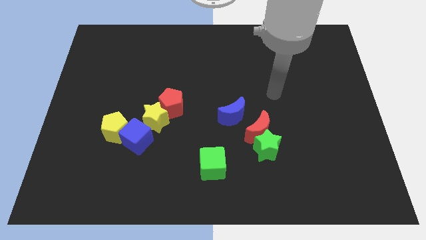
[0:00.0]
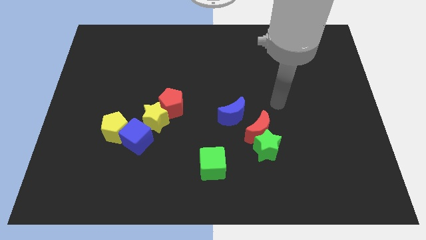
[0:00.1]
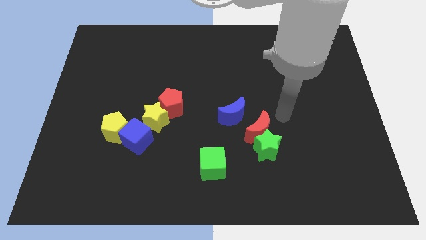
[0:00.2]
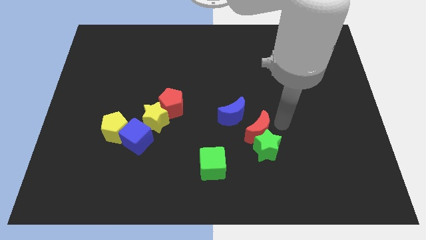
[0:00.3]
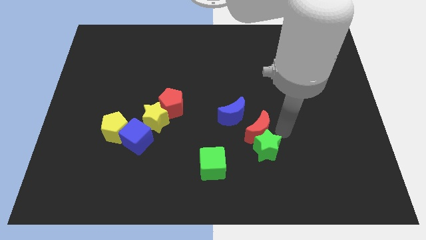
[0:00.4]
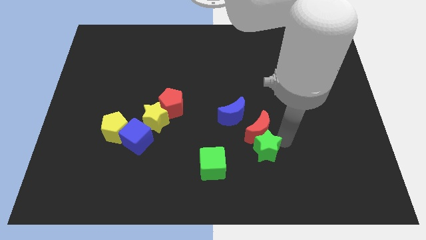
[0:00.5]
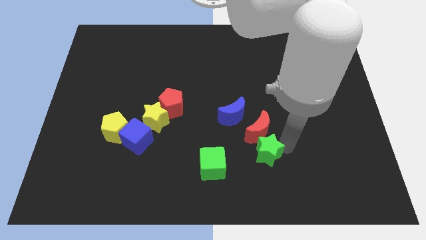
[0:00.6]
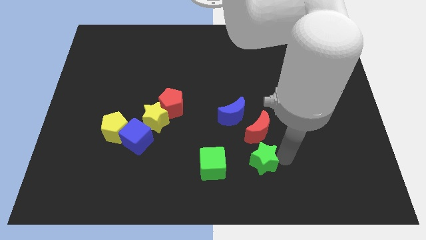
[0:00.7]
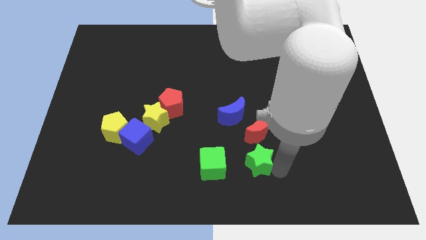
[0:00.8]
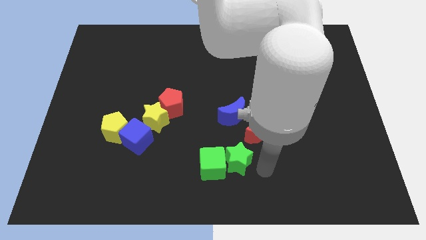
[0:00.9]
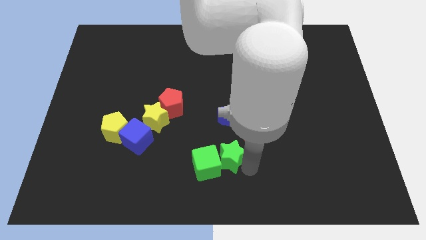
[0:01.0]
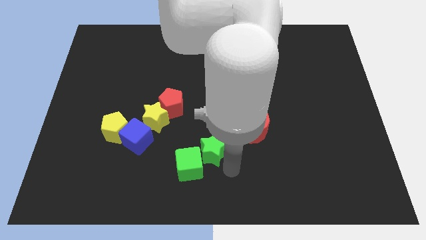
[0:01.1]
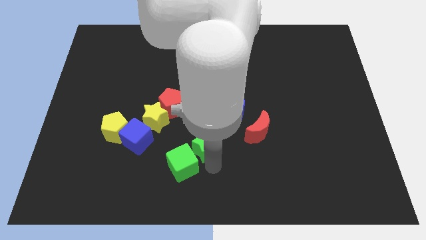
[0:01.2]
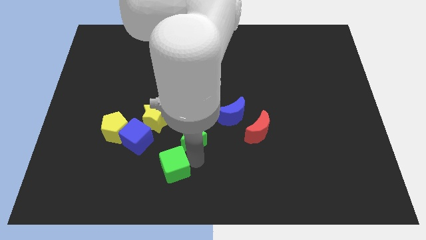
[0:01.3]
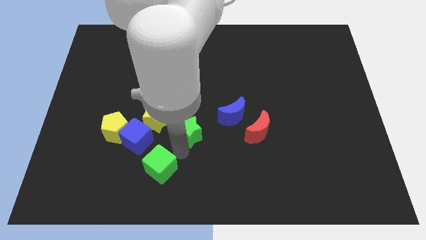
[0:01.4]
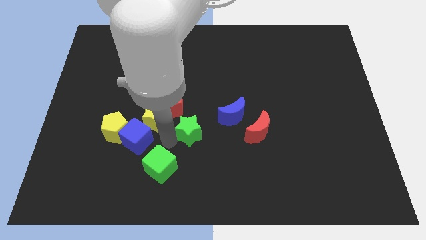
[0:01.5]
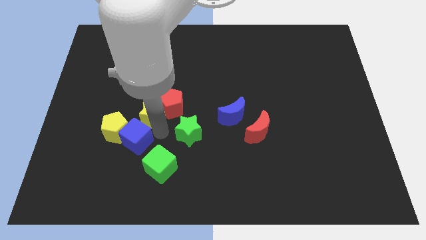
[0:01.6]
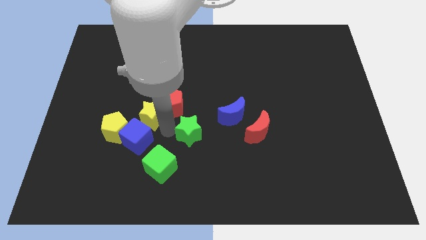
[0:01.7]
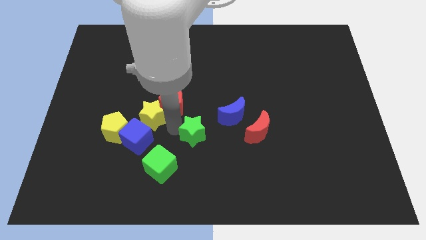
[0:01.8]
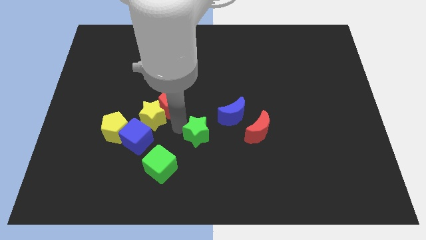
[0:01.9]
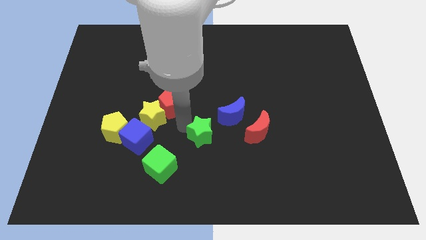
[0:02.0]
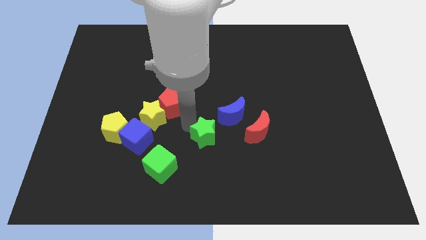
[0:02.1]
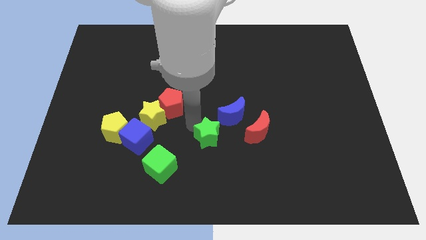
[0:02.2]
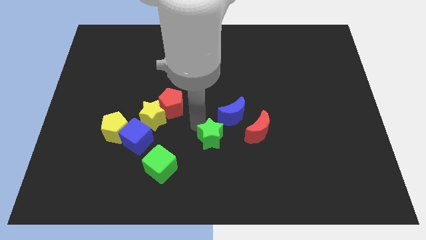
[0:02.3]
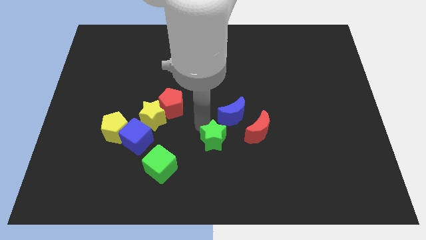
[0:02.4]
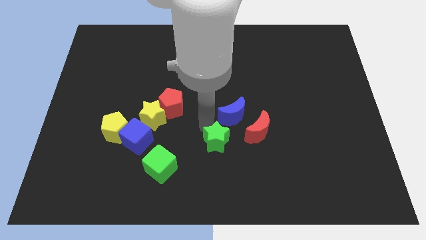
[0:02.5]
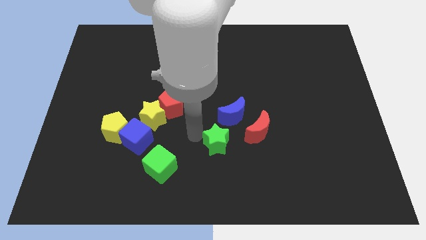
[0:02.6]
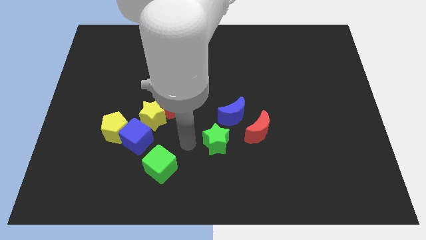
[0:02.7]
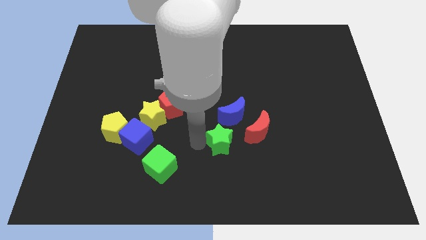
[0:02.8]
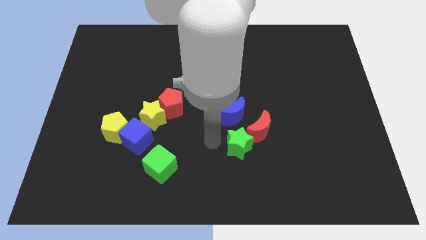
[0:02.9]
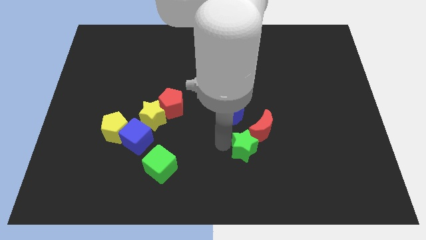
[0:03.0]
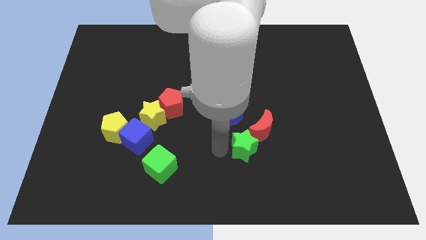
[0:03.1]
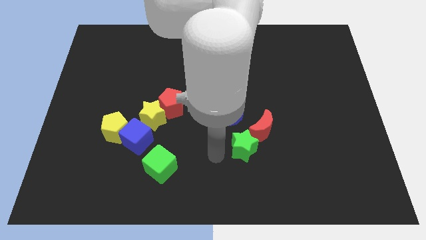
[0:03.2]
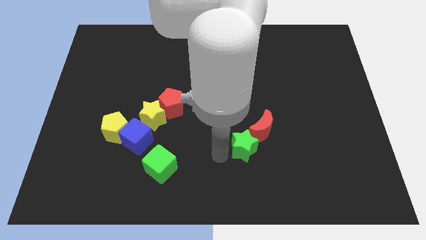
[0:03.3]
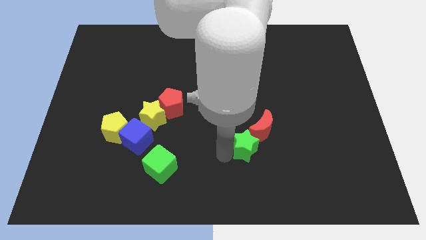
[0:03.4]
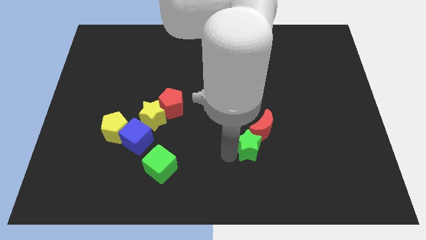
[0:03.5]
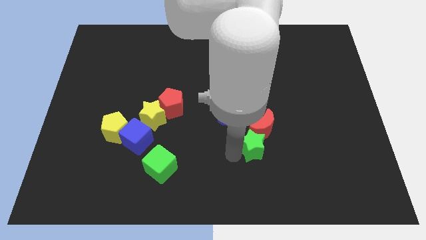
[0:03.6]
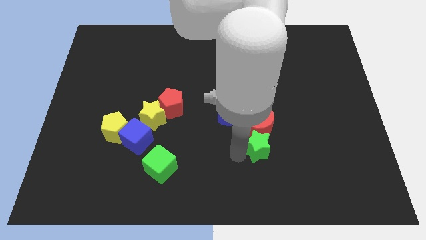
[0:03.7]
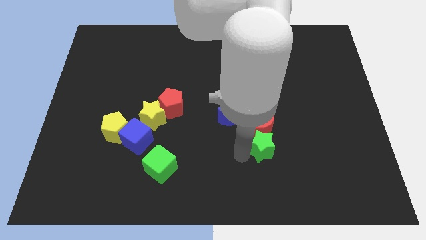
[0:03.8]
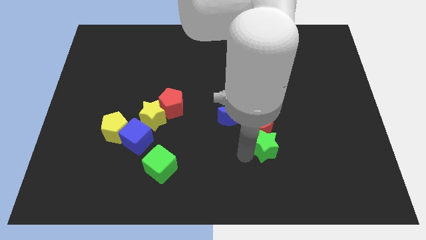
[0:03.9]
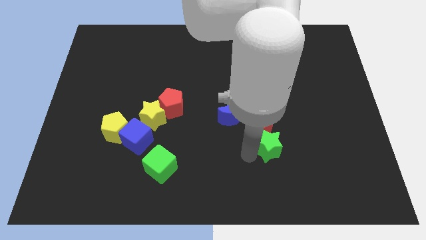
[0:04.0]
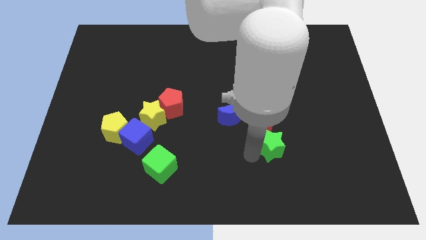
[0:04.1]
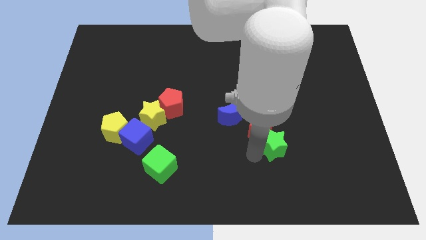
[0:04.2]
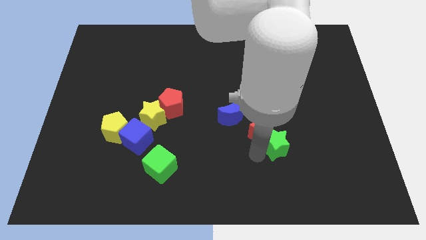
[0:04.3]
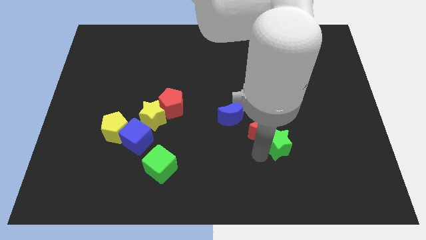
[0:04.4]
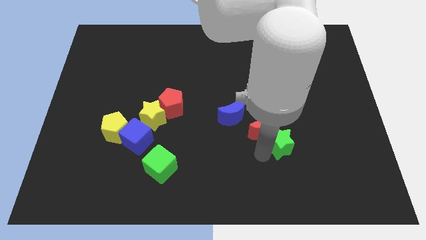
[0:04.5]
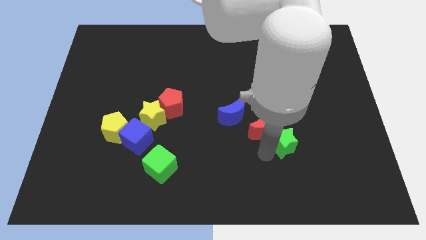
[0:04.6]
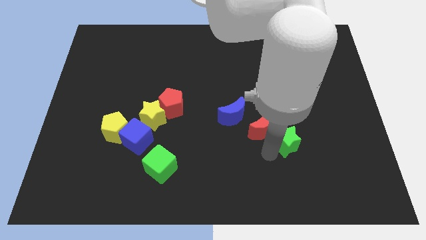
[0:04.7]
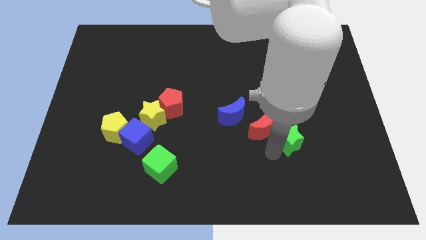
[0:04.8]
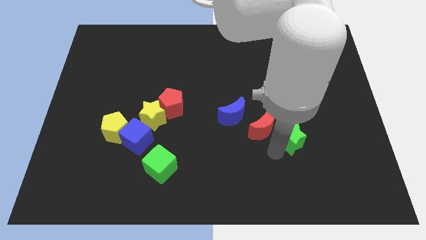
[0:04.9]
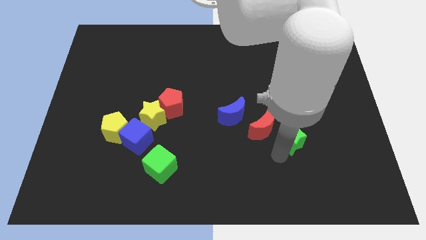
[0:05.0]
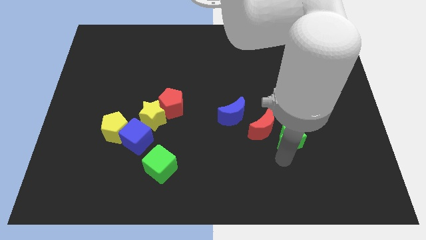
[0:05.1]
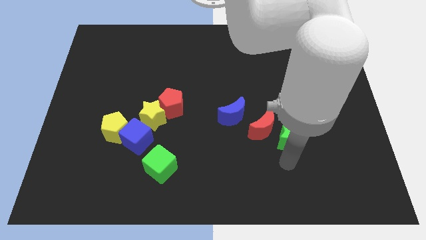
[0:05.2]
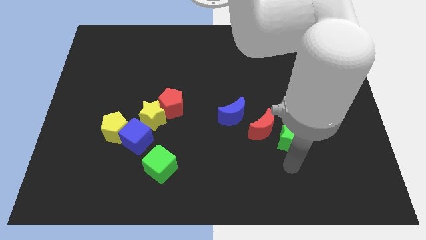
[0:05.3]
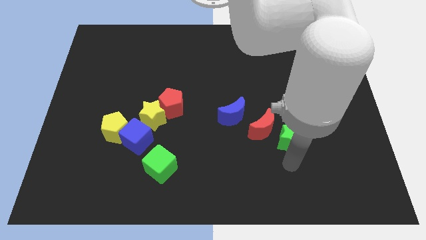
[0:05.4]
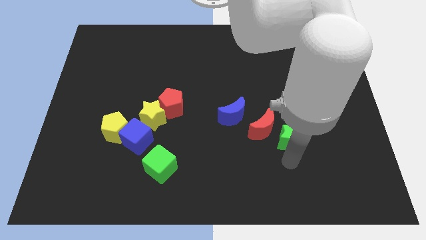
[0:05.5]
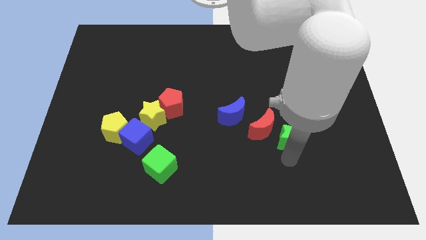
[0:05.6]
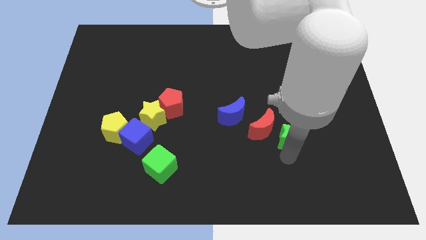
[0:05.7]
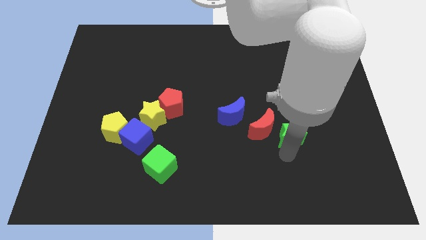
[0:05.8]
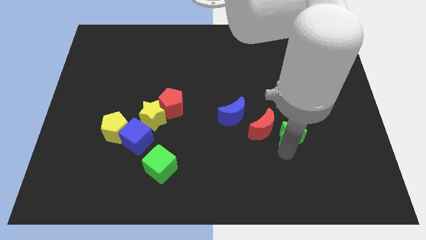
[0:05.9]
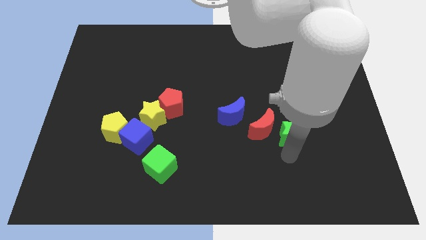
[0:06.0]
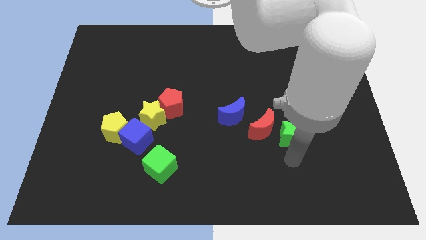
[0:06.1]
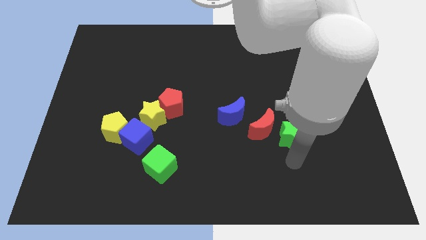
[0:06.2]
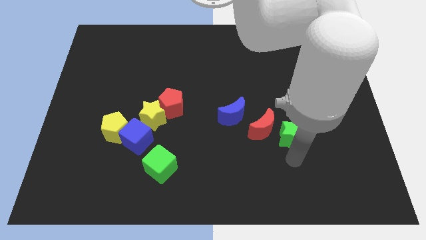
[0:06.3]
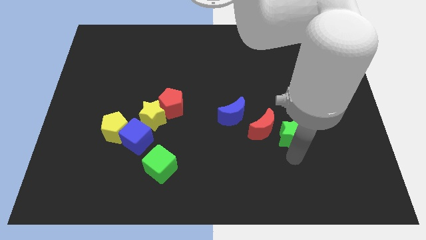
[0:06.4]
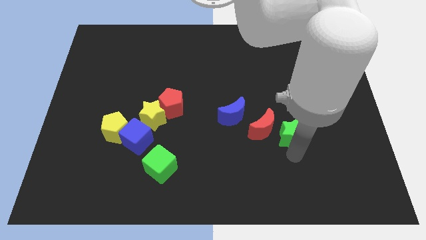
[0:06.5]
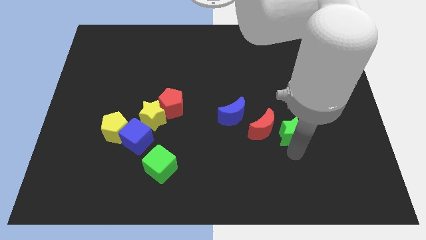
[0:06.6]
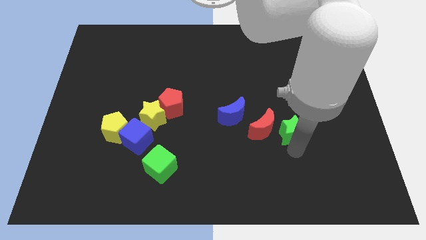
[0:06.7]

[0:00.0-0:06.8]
move the green star slightly diagonally up and right

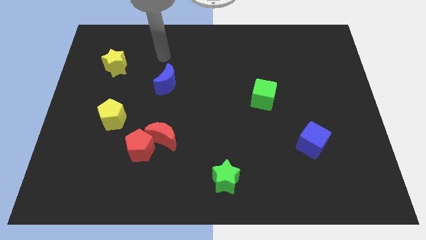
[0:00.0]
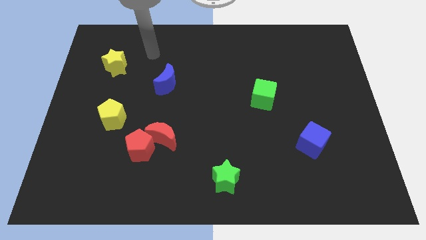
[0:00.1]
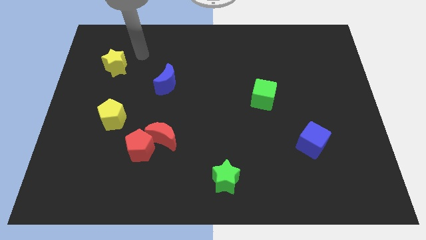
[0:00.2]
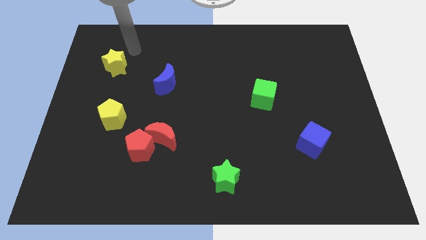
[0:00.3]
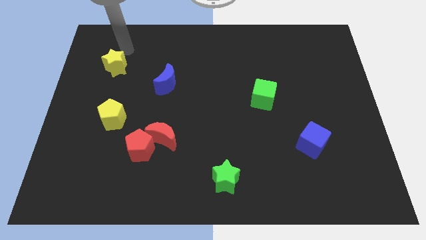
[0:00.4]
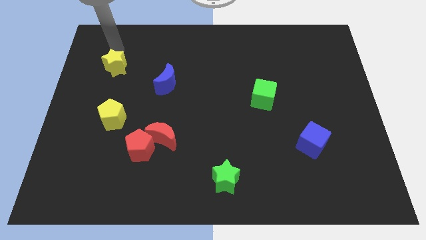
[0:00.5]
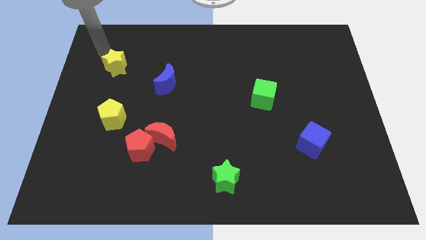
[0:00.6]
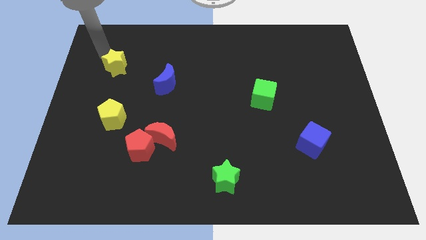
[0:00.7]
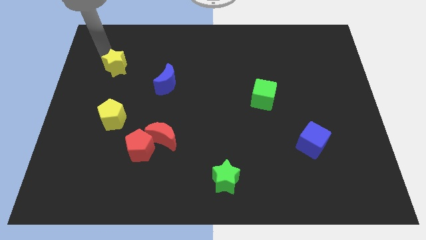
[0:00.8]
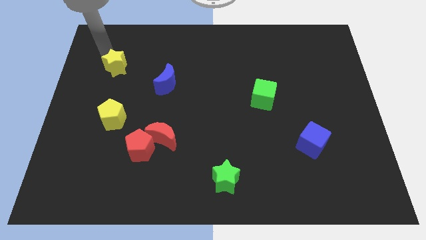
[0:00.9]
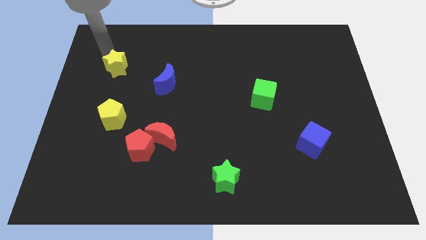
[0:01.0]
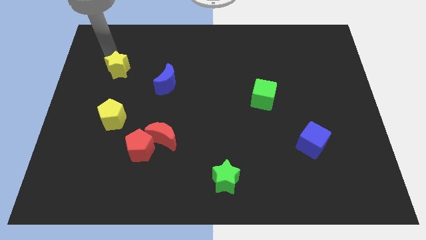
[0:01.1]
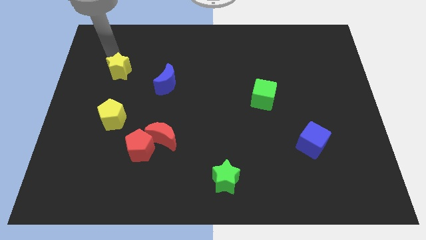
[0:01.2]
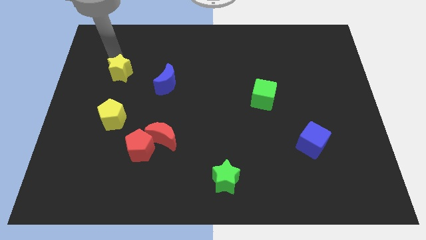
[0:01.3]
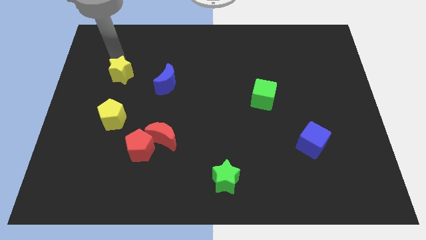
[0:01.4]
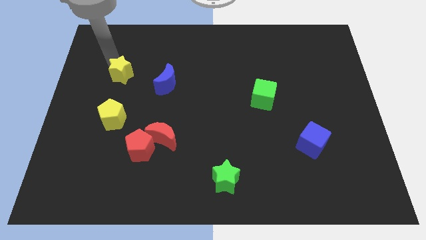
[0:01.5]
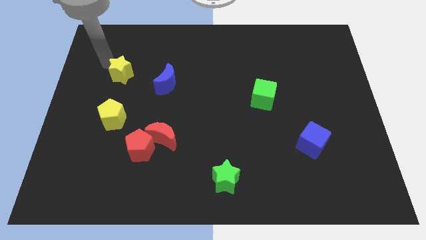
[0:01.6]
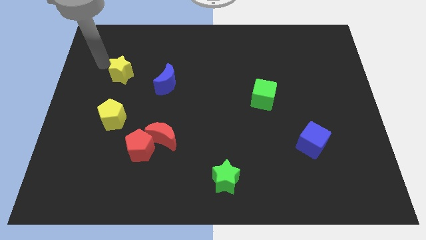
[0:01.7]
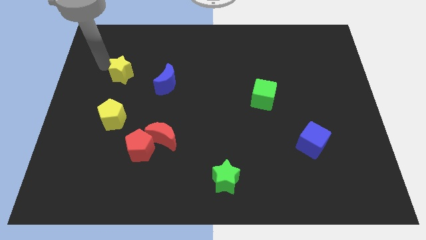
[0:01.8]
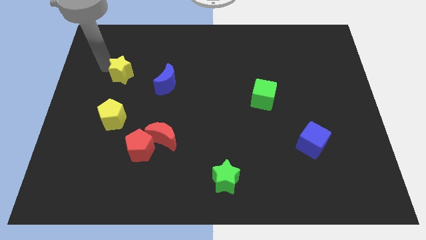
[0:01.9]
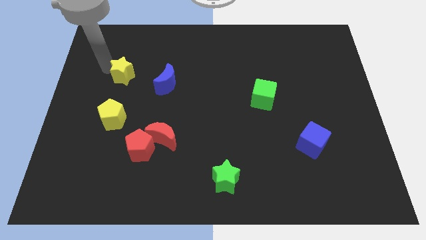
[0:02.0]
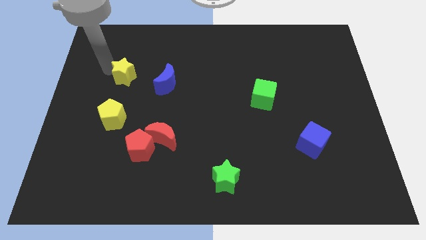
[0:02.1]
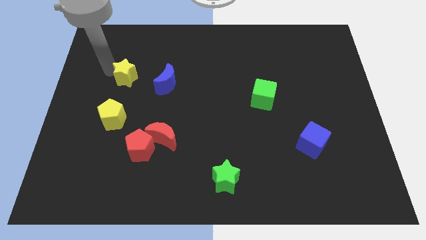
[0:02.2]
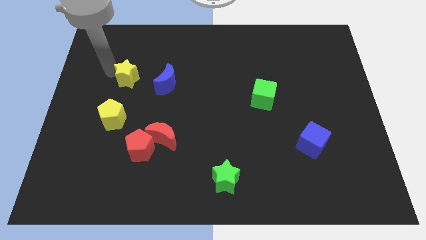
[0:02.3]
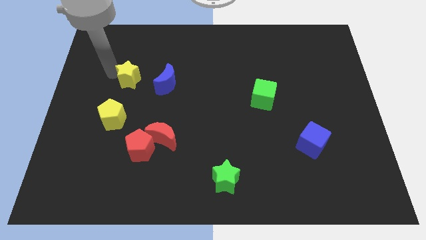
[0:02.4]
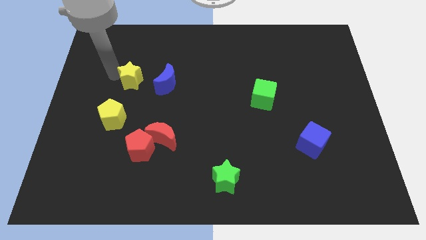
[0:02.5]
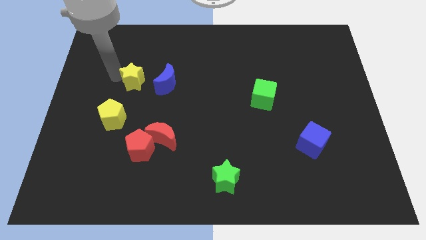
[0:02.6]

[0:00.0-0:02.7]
slide the yellow star a little downwards and to the right diagonally
